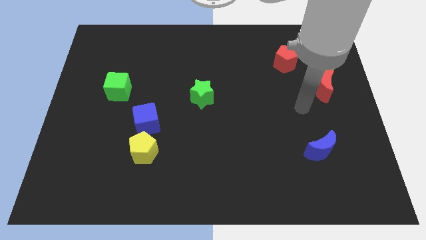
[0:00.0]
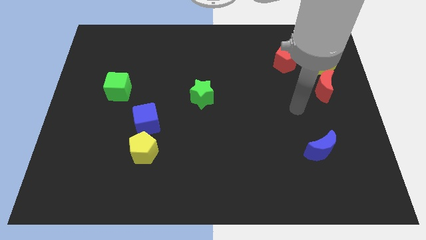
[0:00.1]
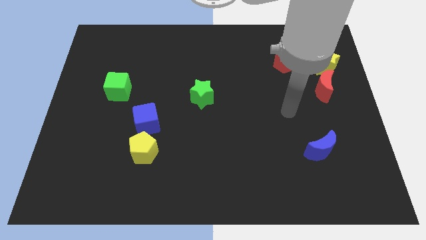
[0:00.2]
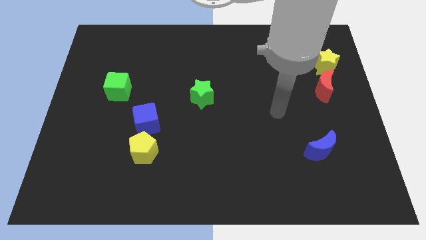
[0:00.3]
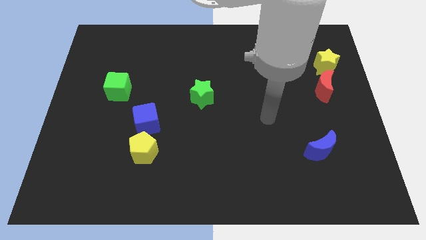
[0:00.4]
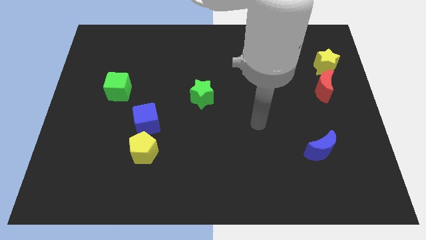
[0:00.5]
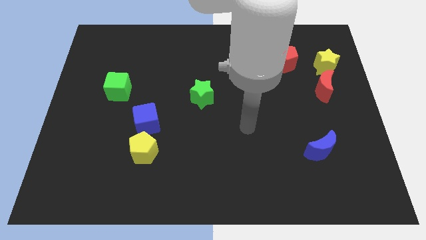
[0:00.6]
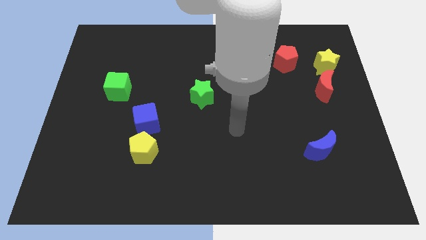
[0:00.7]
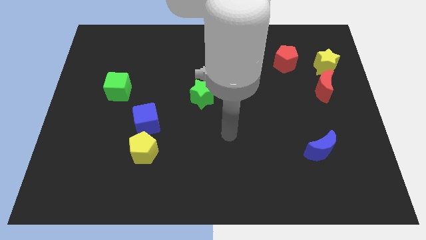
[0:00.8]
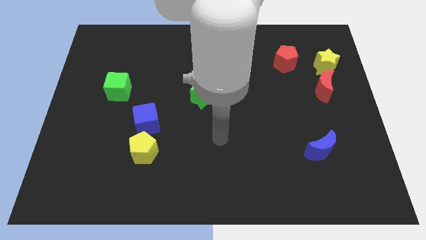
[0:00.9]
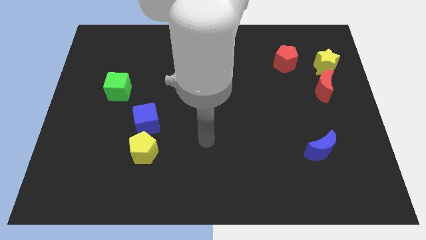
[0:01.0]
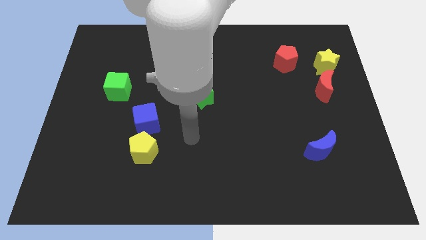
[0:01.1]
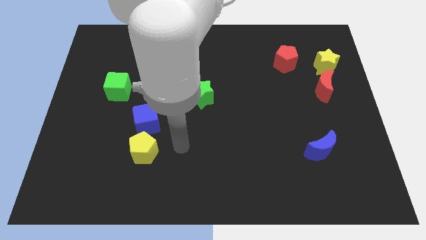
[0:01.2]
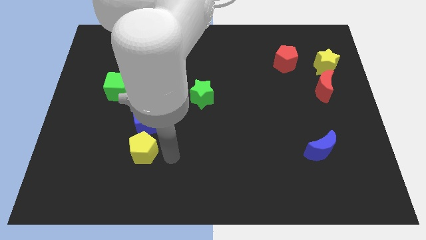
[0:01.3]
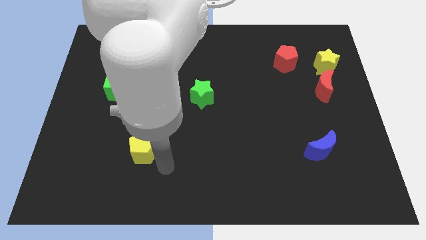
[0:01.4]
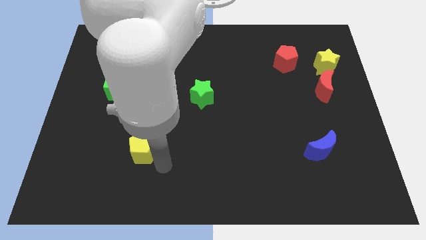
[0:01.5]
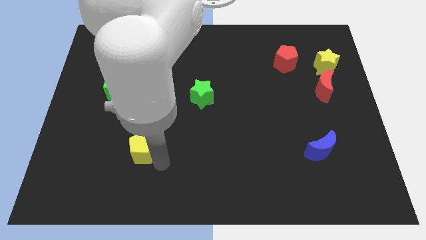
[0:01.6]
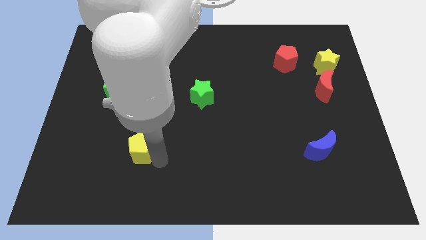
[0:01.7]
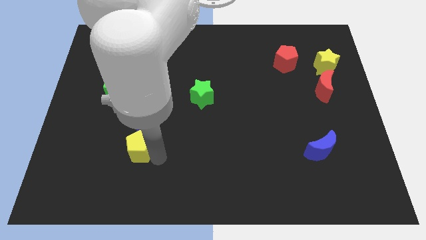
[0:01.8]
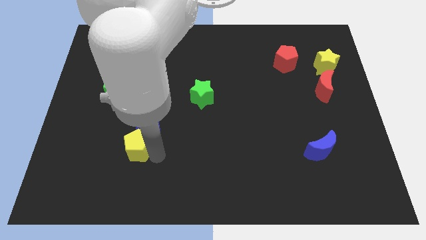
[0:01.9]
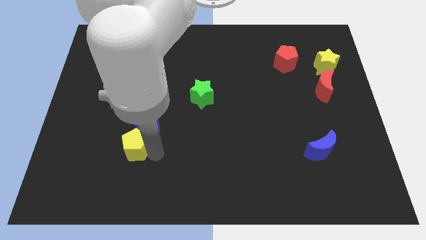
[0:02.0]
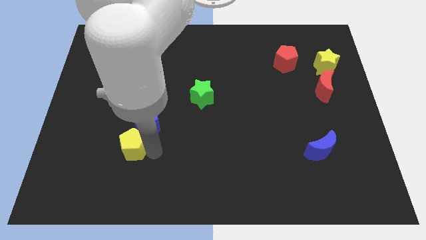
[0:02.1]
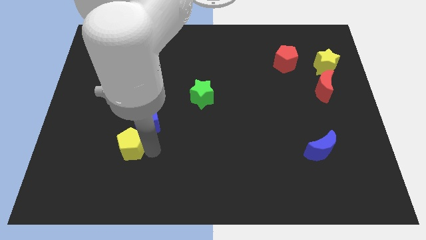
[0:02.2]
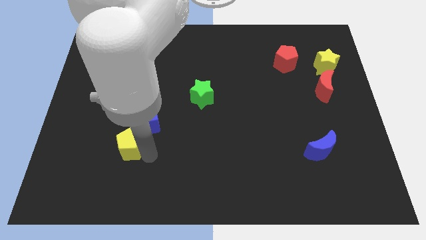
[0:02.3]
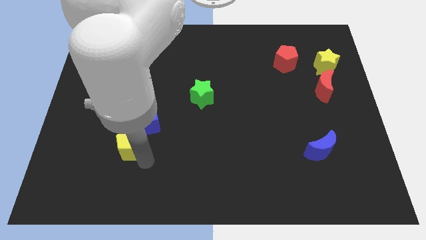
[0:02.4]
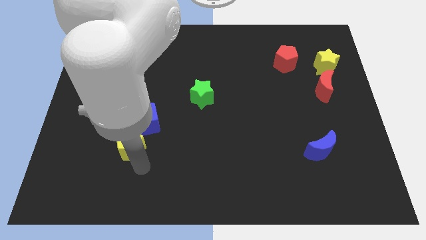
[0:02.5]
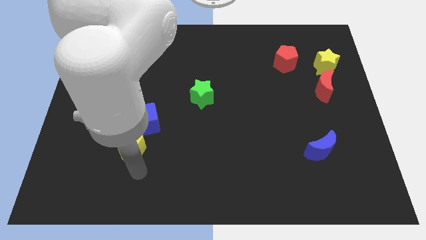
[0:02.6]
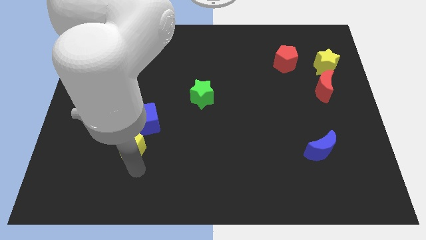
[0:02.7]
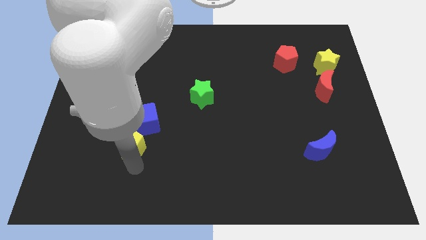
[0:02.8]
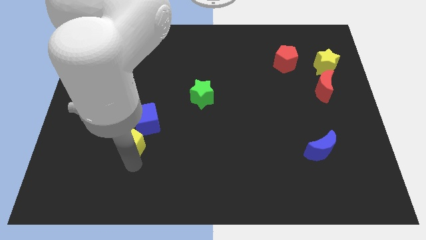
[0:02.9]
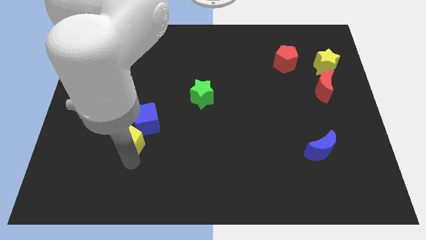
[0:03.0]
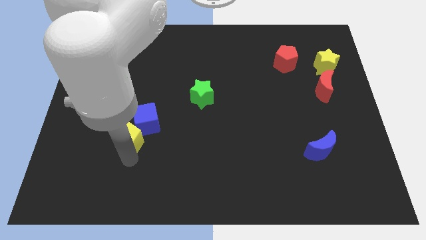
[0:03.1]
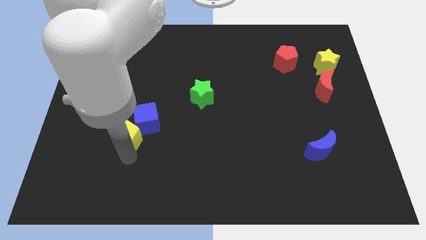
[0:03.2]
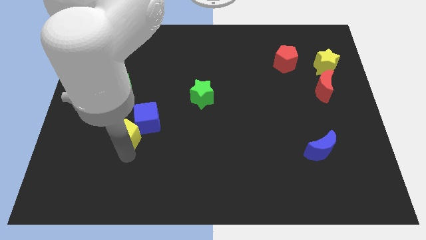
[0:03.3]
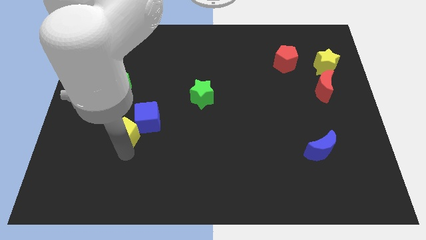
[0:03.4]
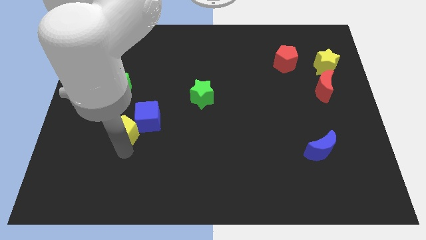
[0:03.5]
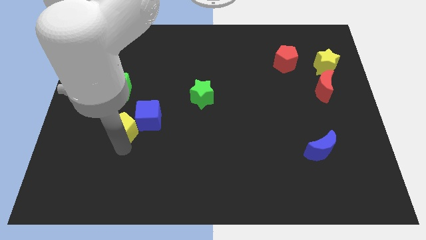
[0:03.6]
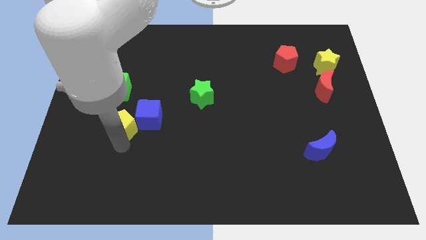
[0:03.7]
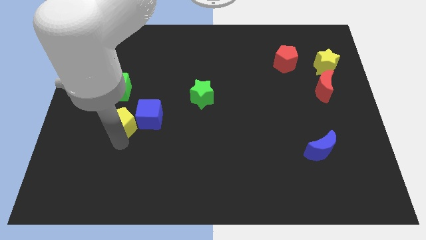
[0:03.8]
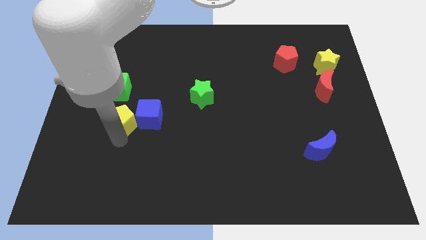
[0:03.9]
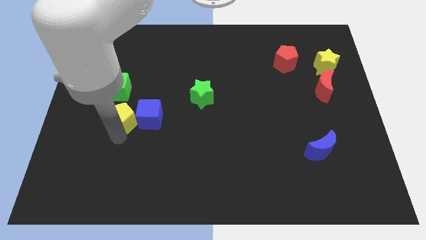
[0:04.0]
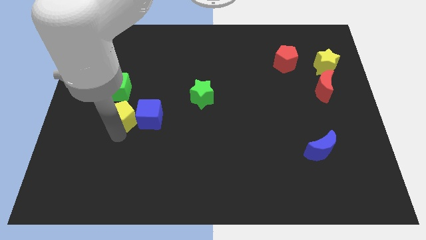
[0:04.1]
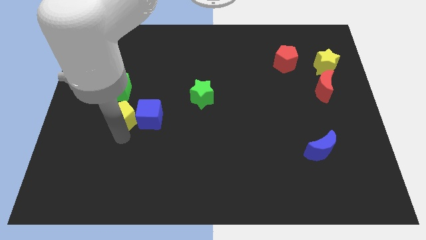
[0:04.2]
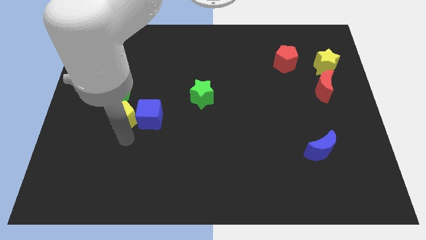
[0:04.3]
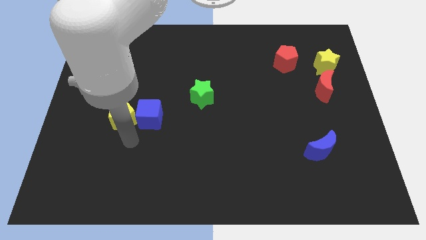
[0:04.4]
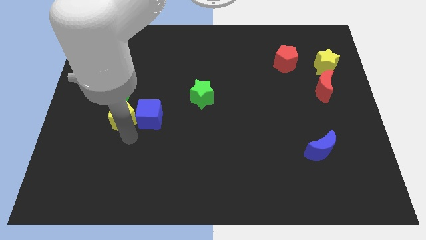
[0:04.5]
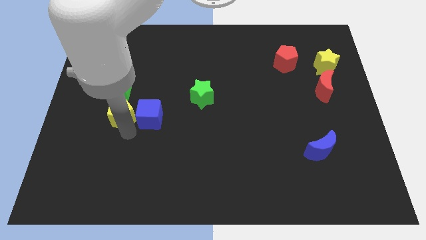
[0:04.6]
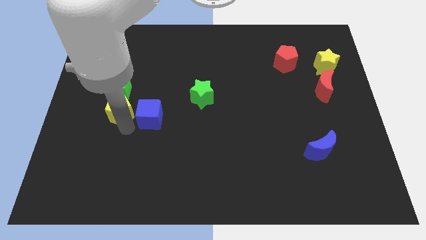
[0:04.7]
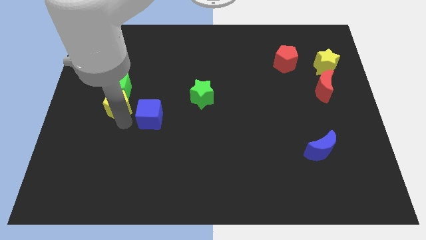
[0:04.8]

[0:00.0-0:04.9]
slide the yellow pentagon next to the green cube

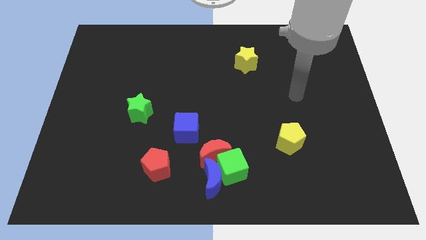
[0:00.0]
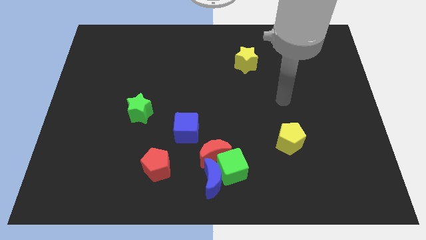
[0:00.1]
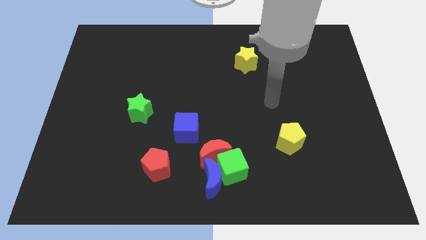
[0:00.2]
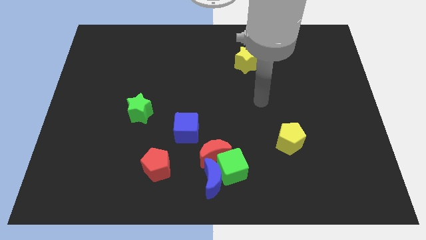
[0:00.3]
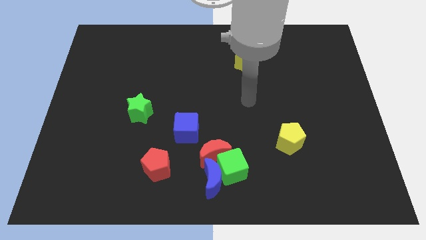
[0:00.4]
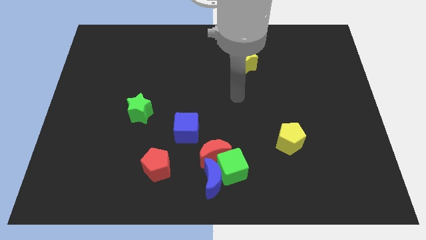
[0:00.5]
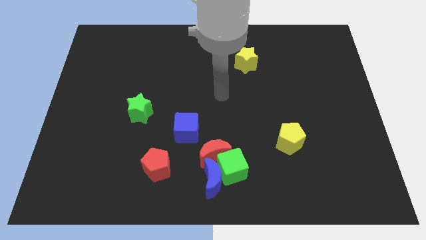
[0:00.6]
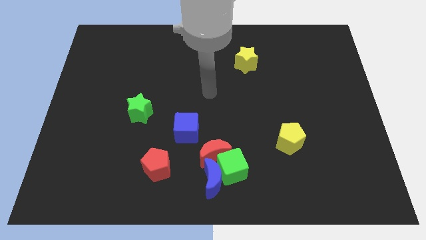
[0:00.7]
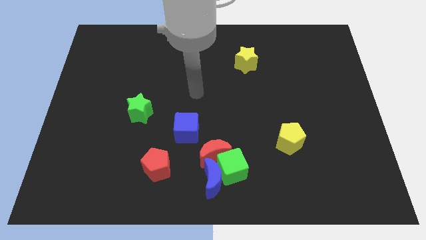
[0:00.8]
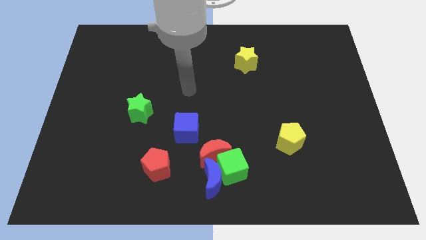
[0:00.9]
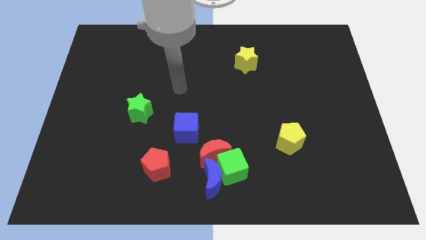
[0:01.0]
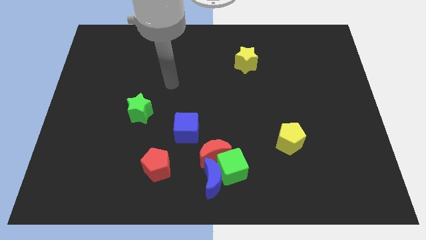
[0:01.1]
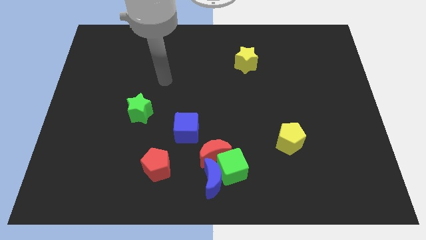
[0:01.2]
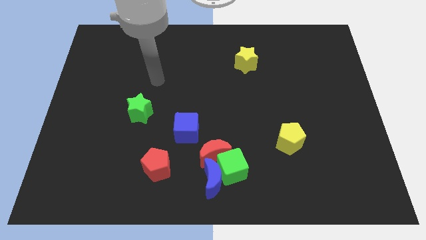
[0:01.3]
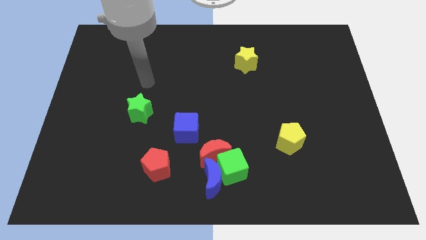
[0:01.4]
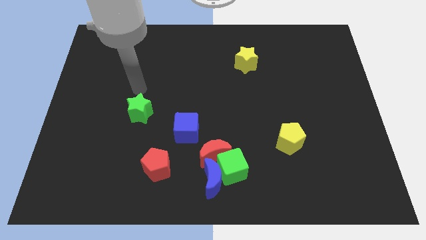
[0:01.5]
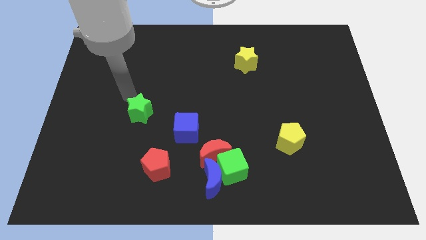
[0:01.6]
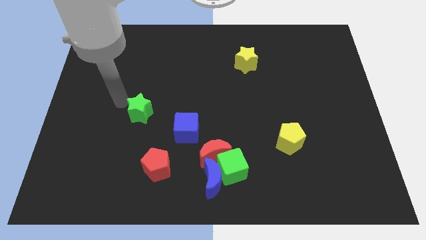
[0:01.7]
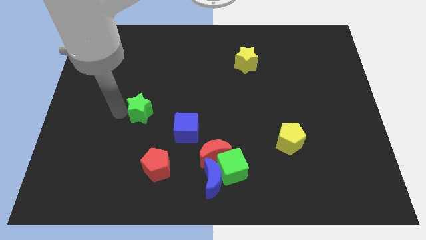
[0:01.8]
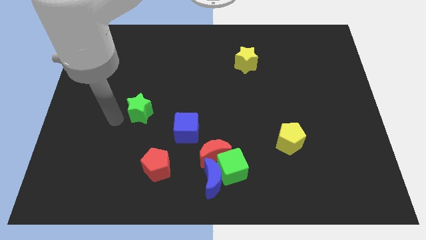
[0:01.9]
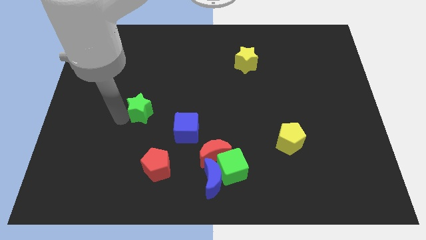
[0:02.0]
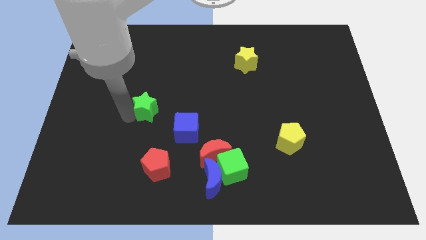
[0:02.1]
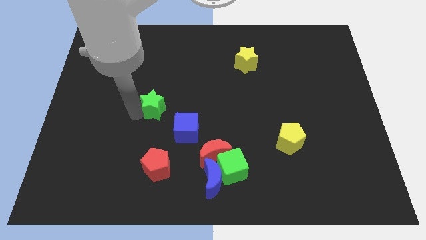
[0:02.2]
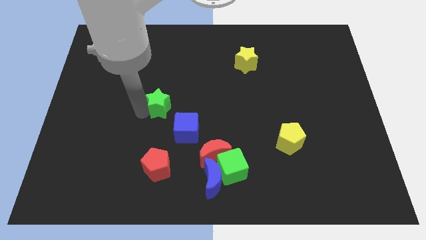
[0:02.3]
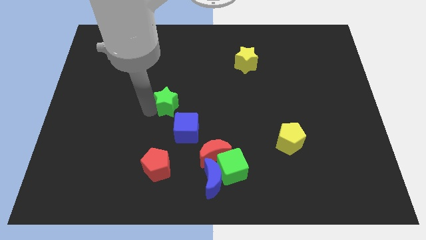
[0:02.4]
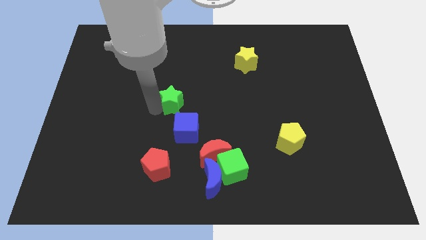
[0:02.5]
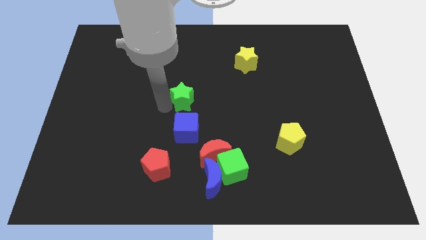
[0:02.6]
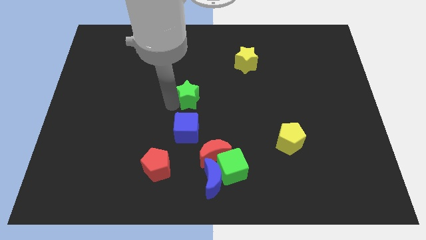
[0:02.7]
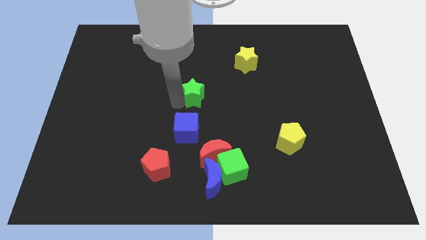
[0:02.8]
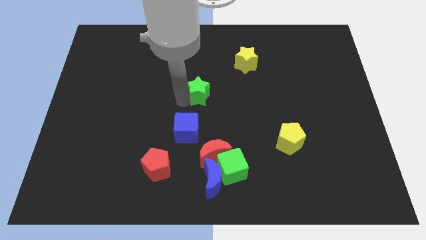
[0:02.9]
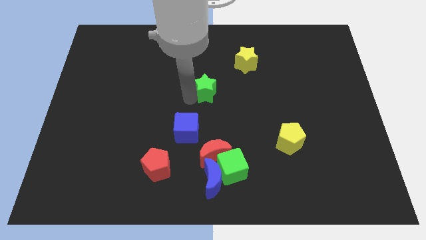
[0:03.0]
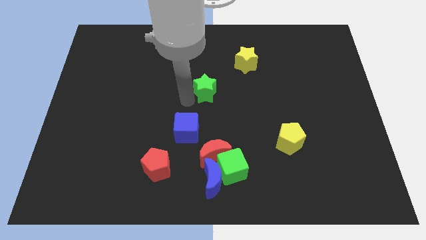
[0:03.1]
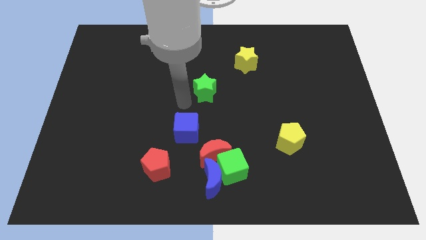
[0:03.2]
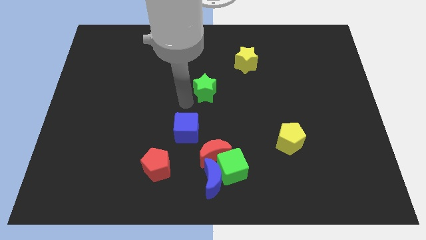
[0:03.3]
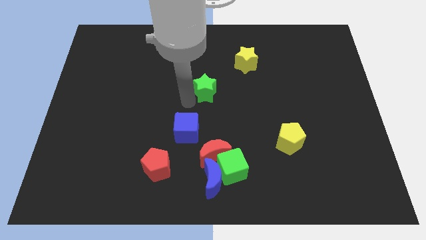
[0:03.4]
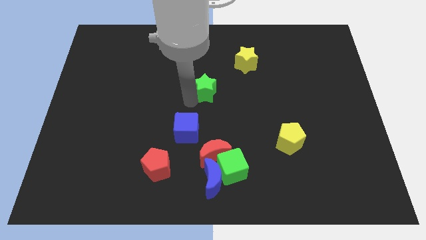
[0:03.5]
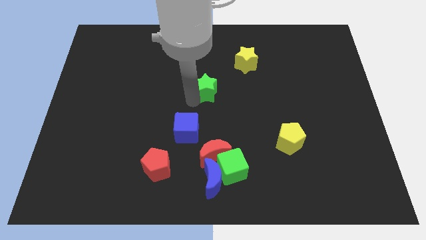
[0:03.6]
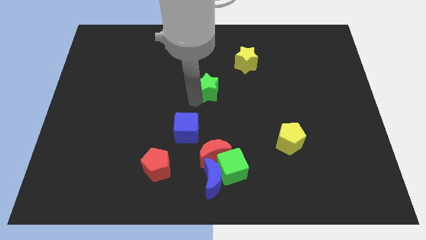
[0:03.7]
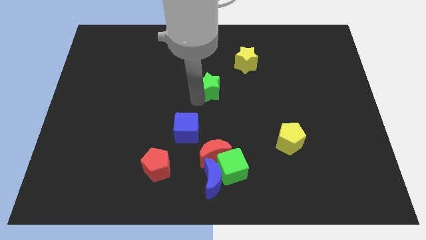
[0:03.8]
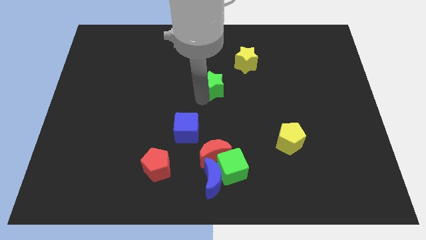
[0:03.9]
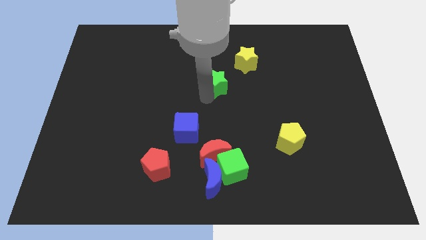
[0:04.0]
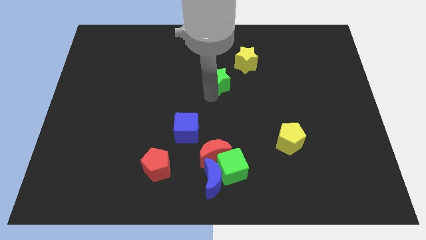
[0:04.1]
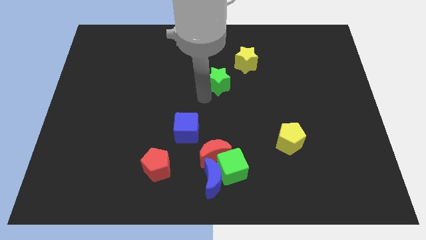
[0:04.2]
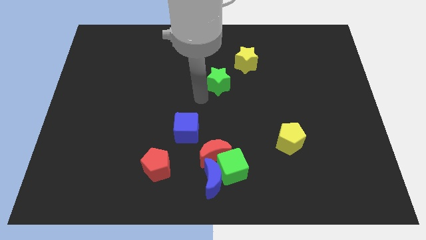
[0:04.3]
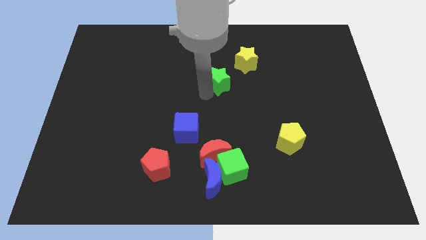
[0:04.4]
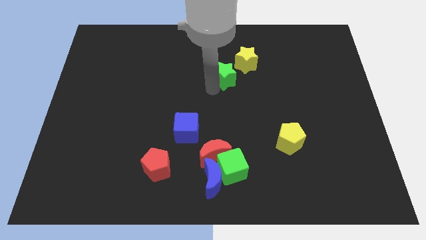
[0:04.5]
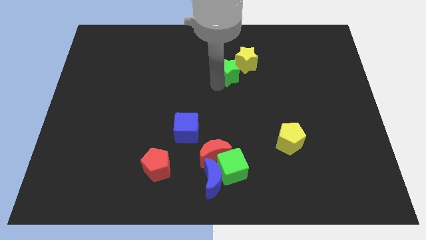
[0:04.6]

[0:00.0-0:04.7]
put the green star close to the yellow star
